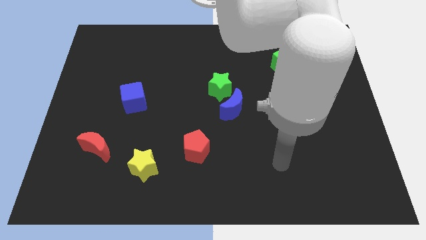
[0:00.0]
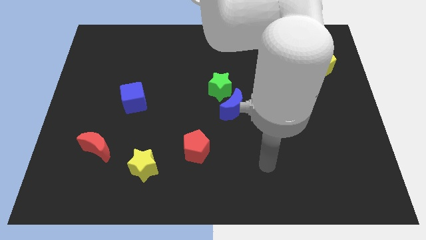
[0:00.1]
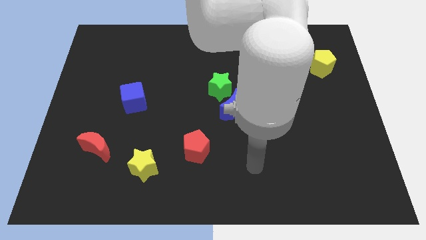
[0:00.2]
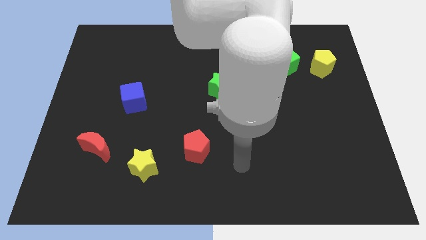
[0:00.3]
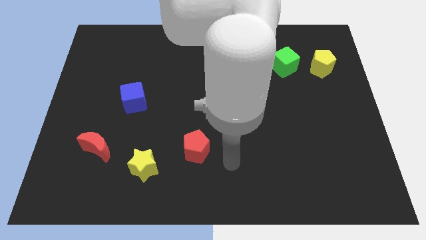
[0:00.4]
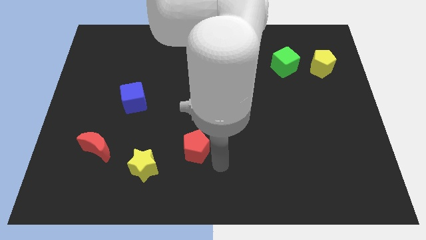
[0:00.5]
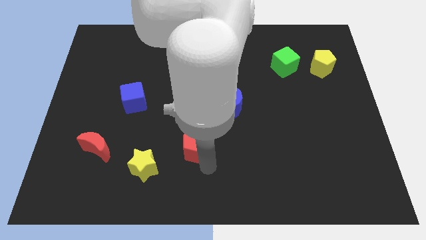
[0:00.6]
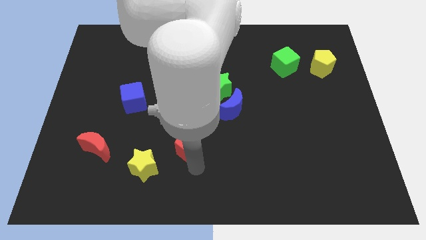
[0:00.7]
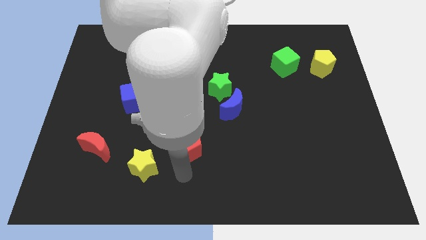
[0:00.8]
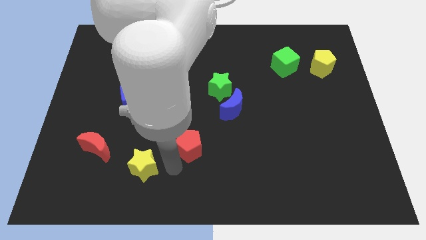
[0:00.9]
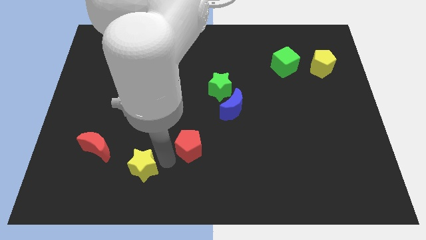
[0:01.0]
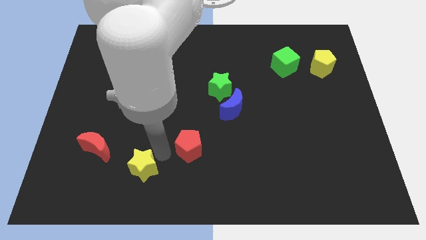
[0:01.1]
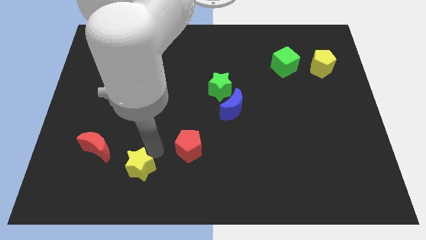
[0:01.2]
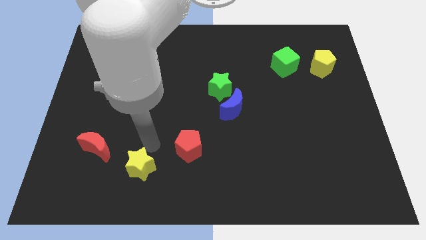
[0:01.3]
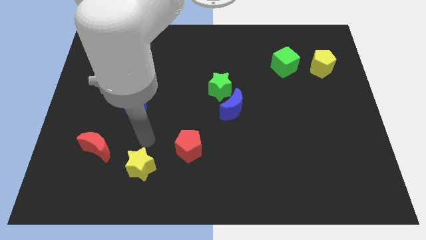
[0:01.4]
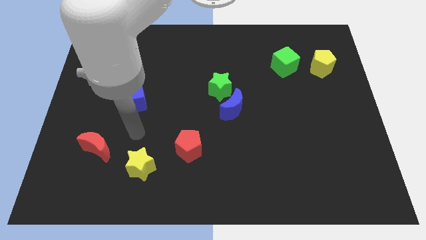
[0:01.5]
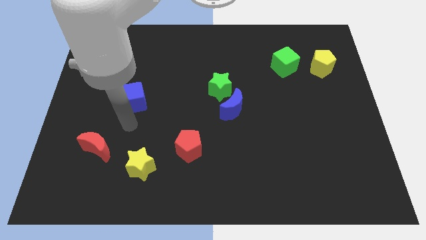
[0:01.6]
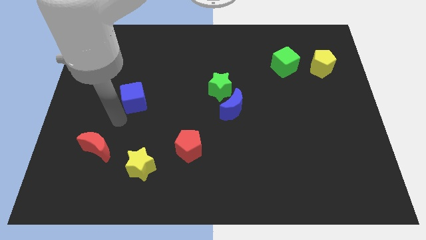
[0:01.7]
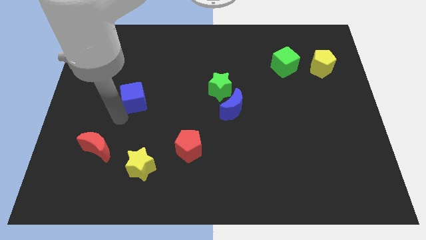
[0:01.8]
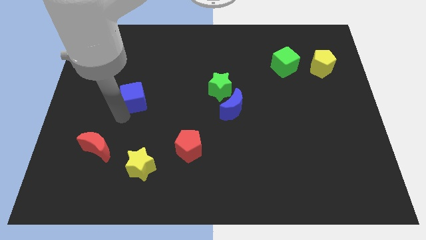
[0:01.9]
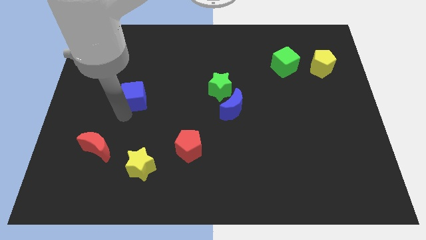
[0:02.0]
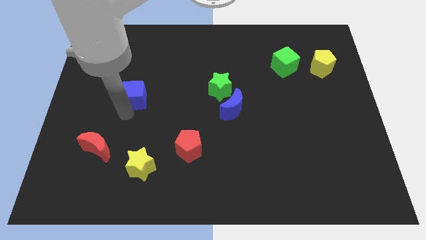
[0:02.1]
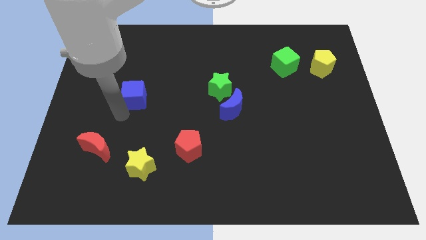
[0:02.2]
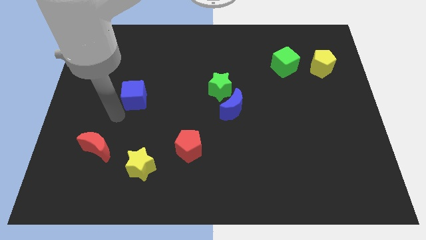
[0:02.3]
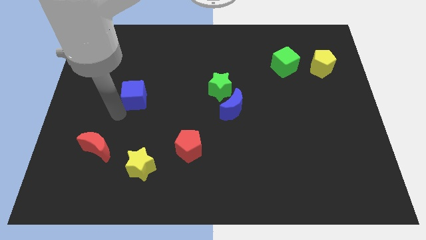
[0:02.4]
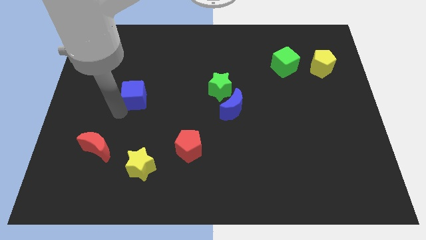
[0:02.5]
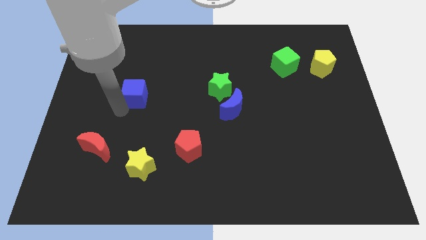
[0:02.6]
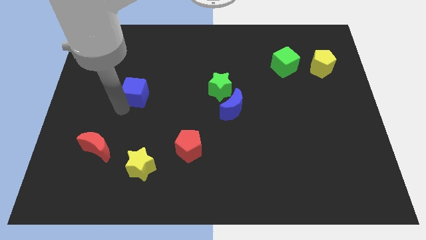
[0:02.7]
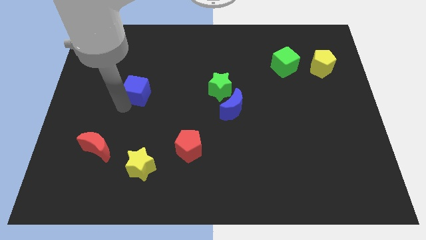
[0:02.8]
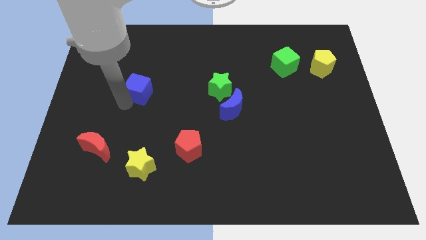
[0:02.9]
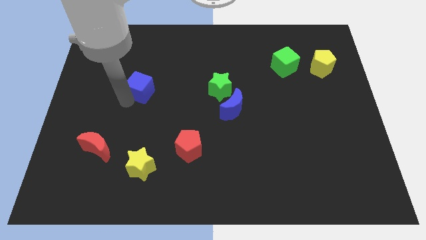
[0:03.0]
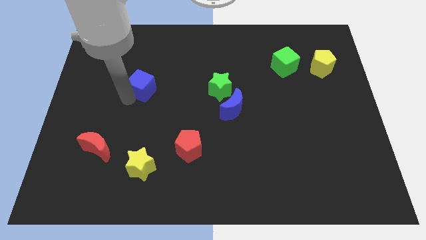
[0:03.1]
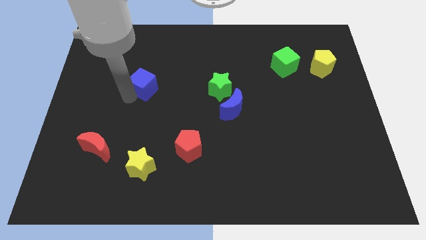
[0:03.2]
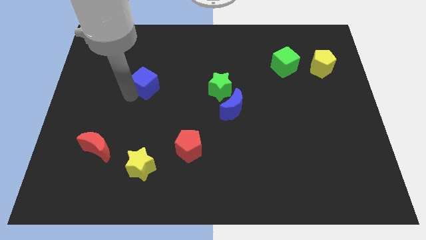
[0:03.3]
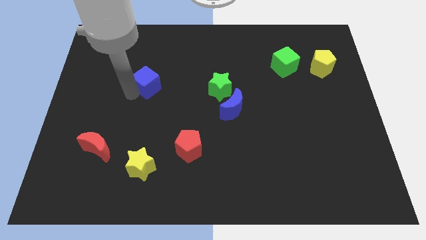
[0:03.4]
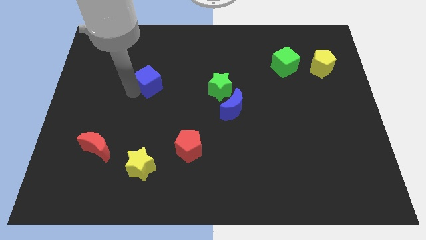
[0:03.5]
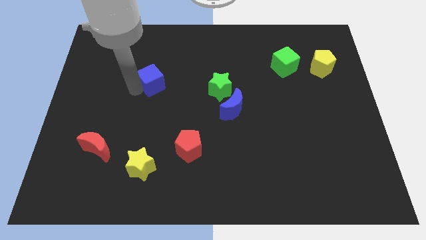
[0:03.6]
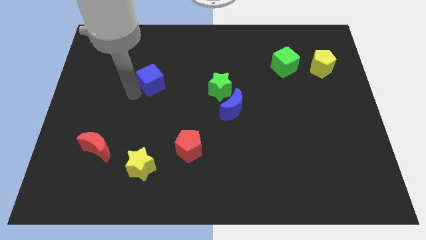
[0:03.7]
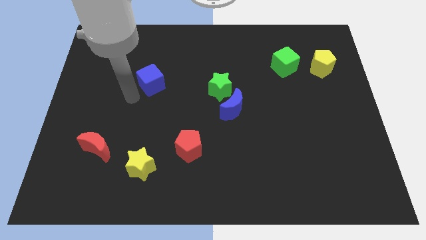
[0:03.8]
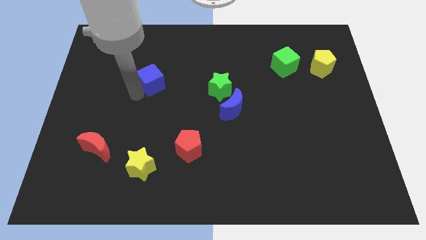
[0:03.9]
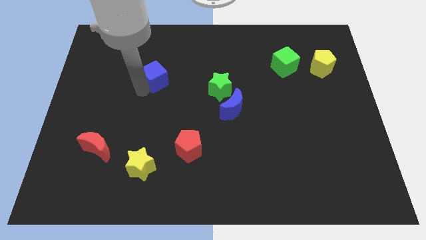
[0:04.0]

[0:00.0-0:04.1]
move the blue cube up and then right slightly

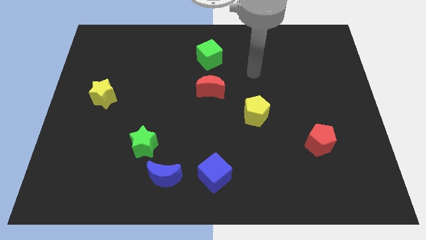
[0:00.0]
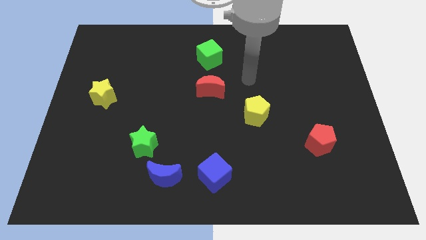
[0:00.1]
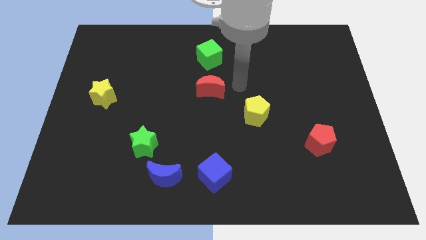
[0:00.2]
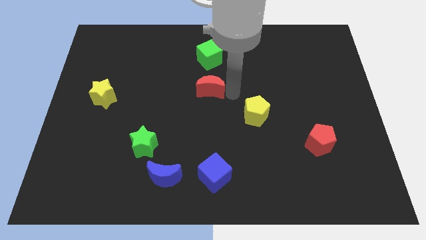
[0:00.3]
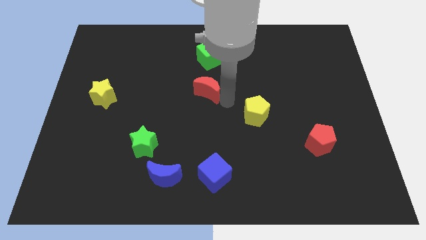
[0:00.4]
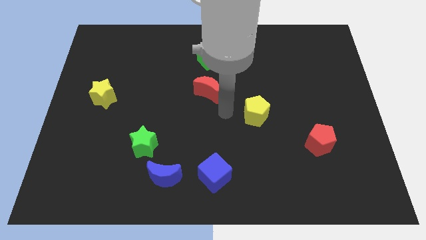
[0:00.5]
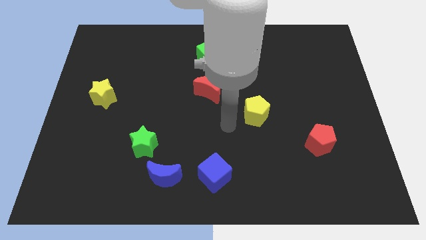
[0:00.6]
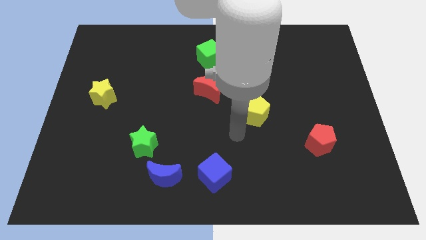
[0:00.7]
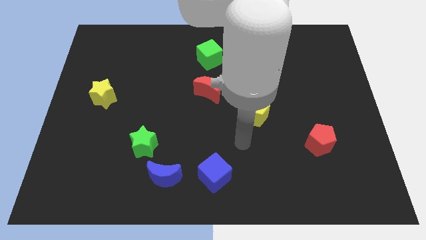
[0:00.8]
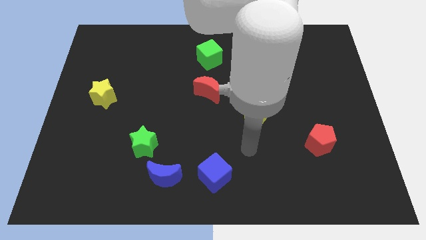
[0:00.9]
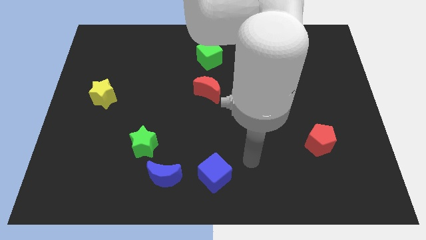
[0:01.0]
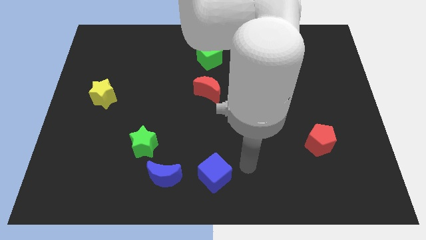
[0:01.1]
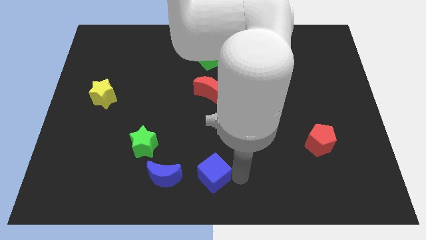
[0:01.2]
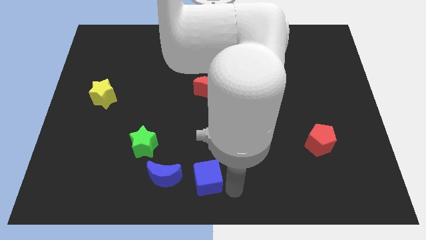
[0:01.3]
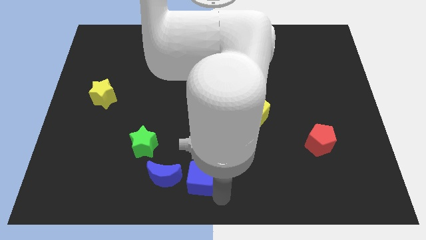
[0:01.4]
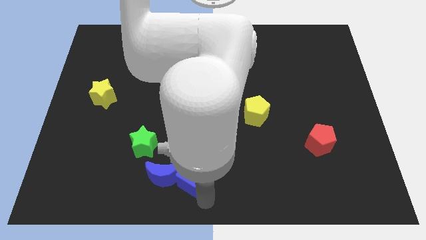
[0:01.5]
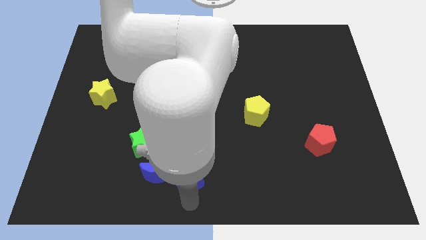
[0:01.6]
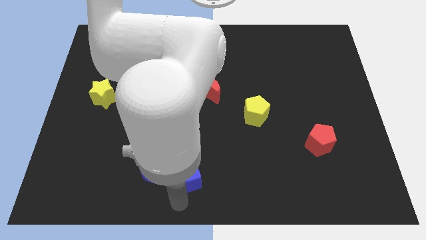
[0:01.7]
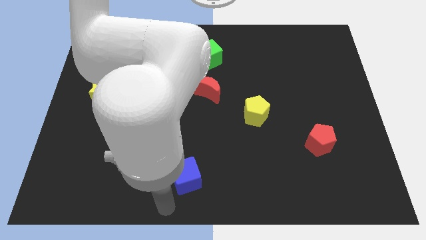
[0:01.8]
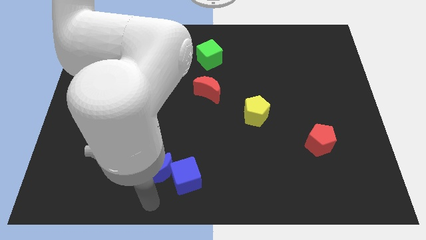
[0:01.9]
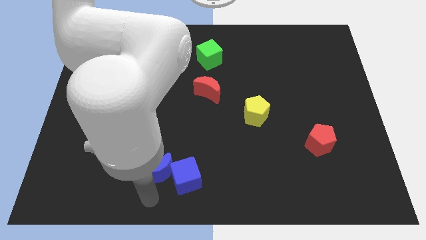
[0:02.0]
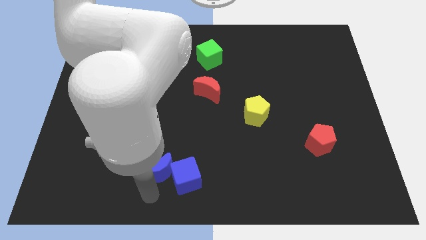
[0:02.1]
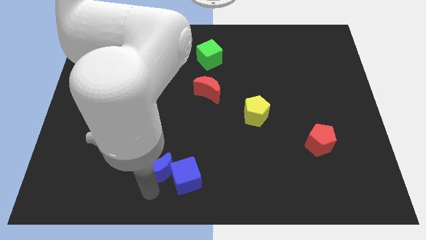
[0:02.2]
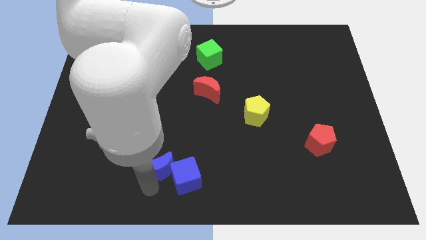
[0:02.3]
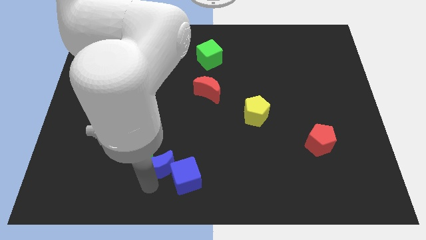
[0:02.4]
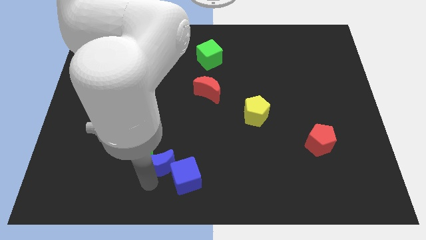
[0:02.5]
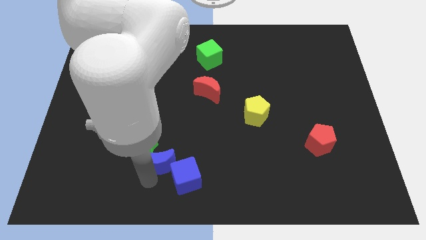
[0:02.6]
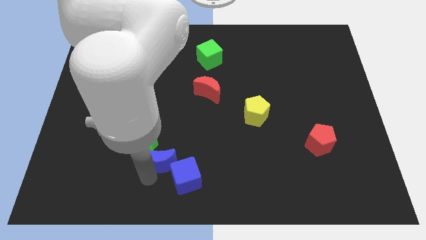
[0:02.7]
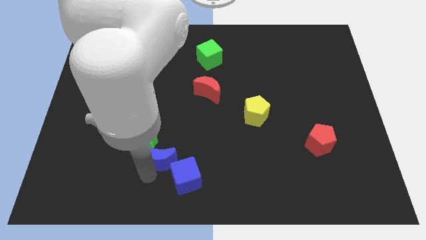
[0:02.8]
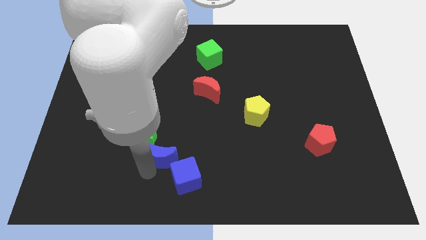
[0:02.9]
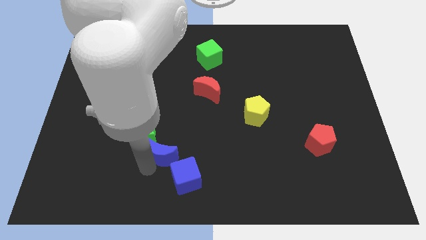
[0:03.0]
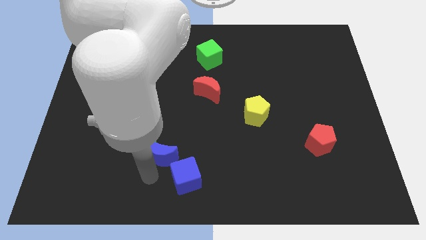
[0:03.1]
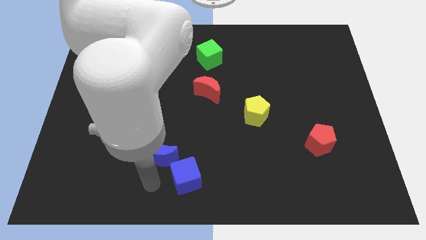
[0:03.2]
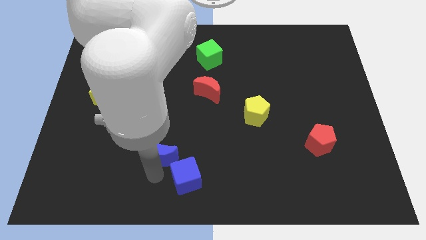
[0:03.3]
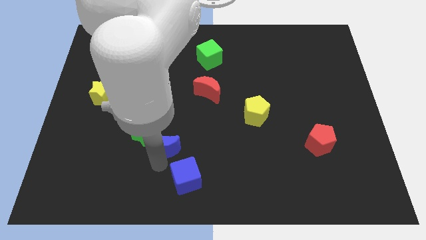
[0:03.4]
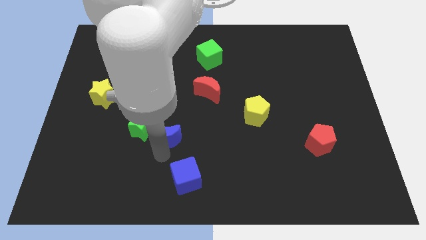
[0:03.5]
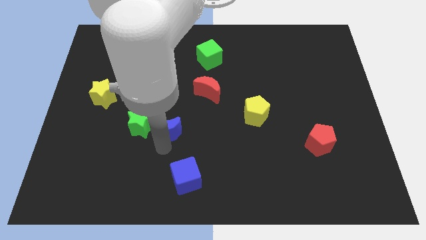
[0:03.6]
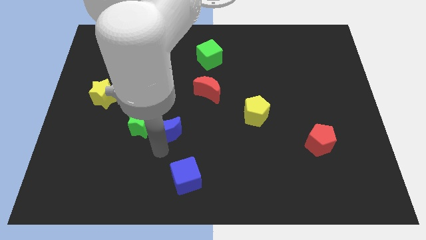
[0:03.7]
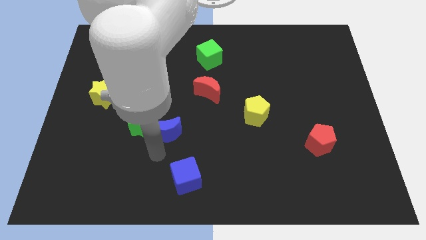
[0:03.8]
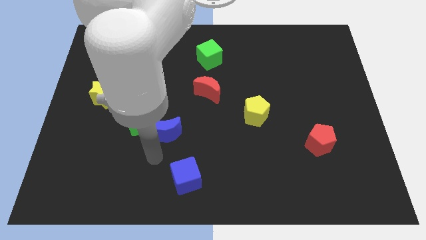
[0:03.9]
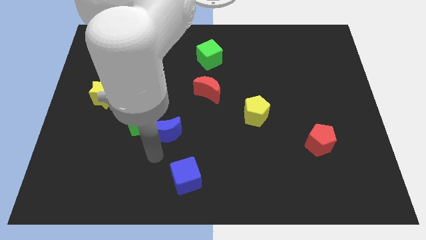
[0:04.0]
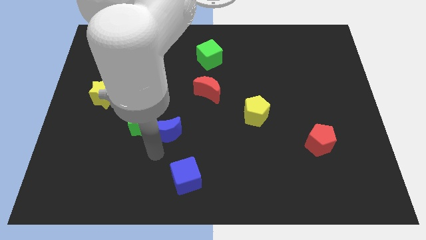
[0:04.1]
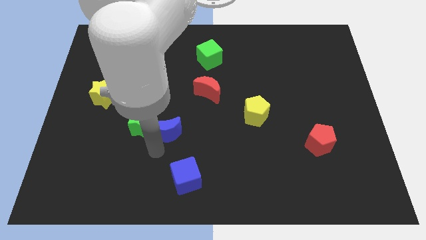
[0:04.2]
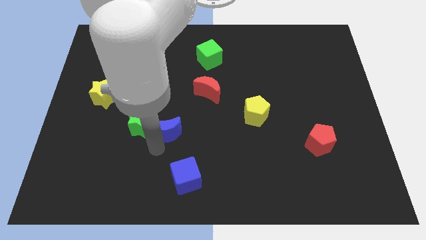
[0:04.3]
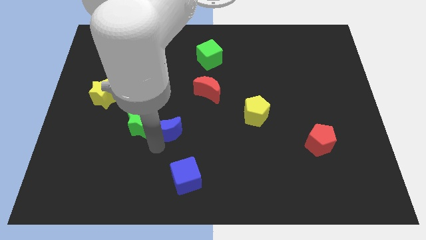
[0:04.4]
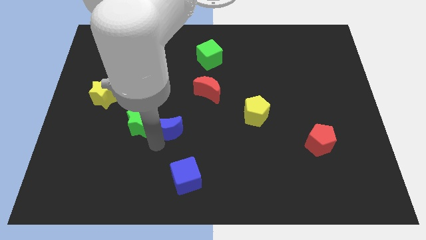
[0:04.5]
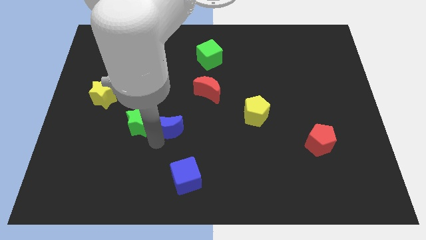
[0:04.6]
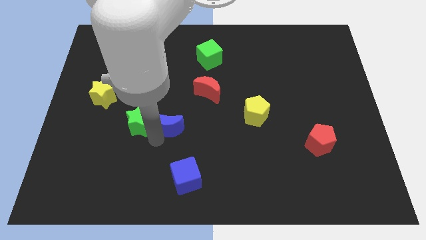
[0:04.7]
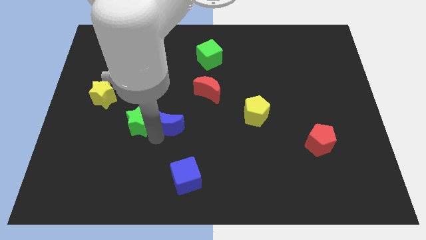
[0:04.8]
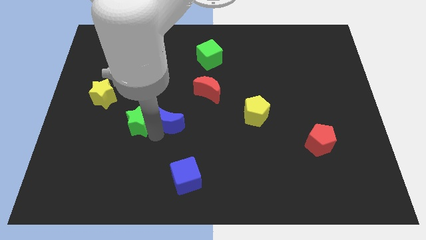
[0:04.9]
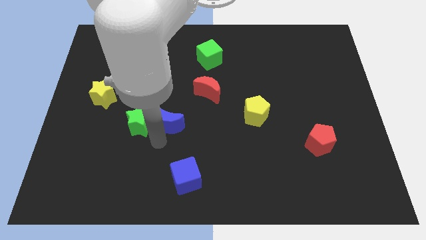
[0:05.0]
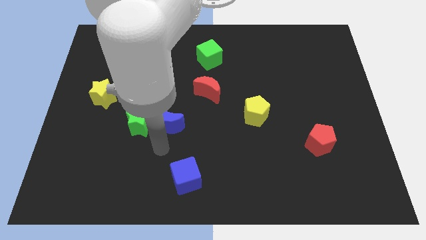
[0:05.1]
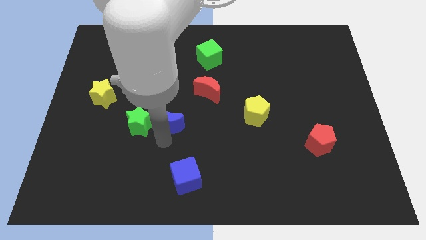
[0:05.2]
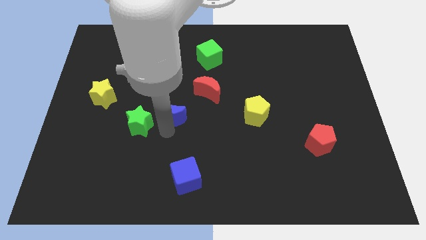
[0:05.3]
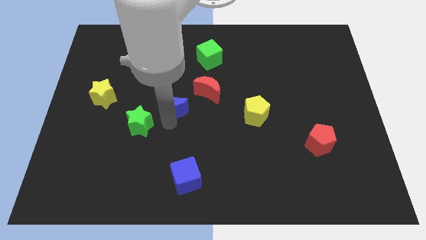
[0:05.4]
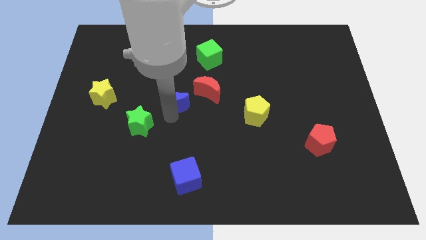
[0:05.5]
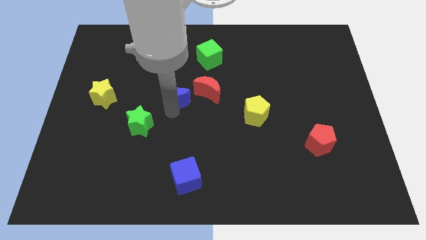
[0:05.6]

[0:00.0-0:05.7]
slide the blue moon upwards
